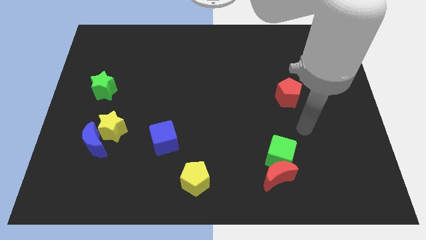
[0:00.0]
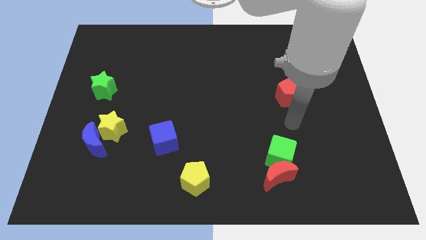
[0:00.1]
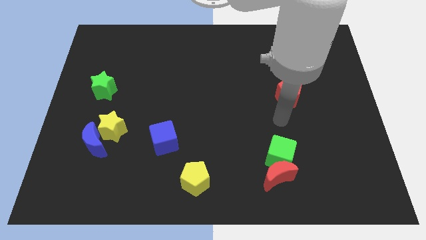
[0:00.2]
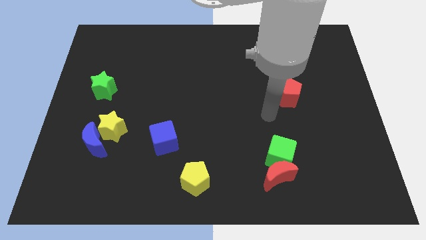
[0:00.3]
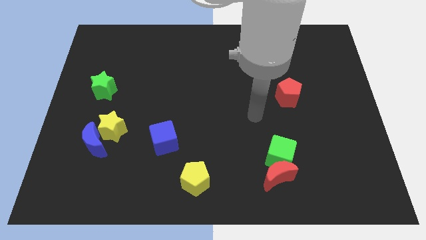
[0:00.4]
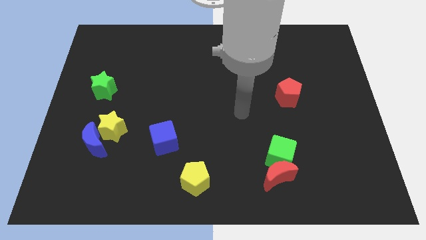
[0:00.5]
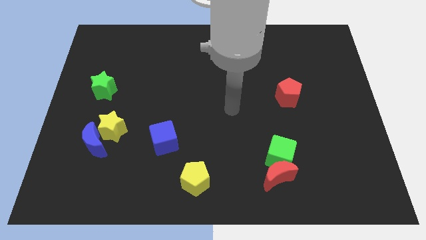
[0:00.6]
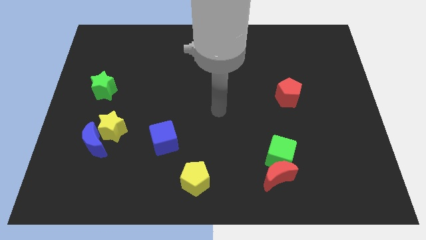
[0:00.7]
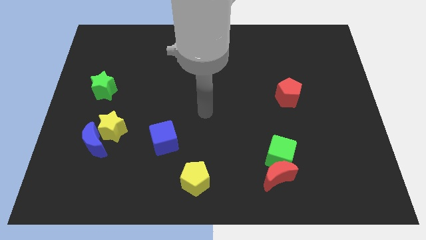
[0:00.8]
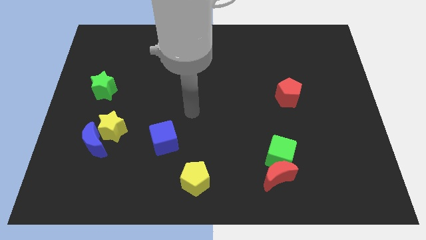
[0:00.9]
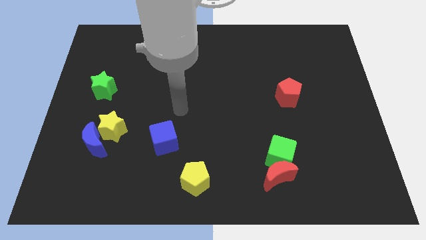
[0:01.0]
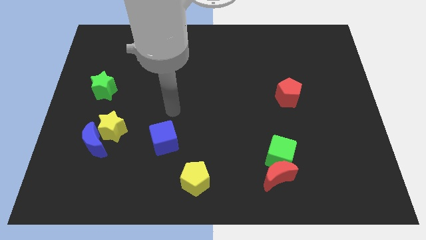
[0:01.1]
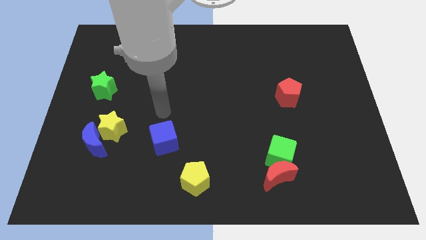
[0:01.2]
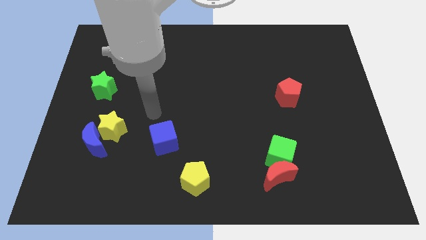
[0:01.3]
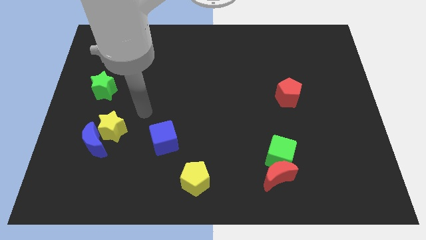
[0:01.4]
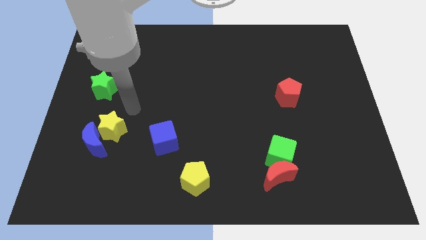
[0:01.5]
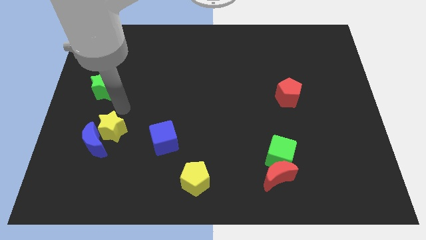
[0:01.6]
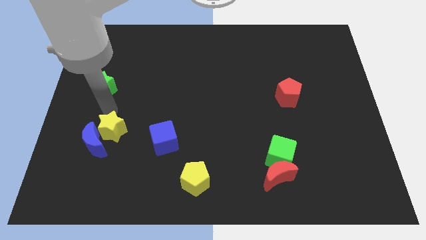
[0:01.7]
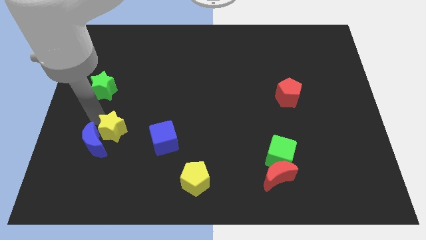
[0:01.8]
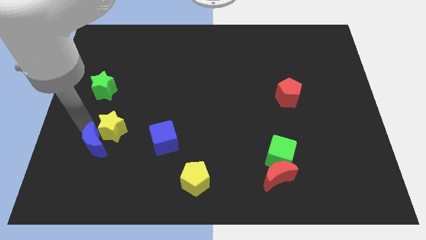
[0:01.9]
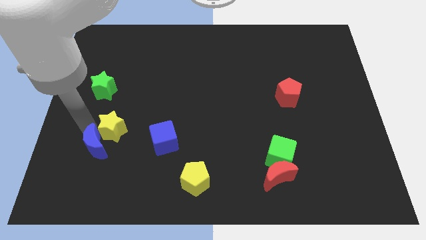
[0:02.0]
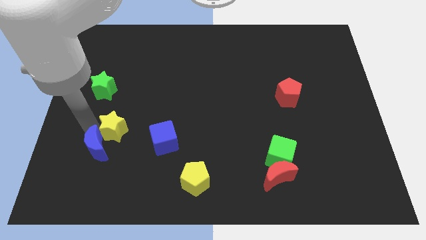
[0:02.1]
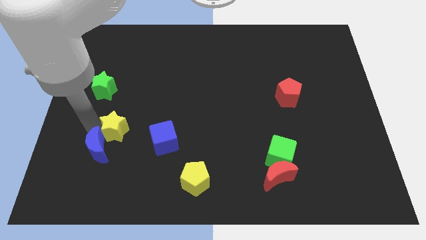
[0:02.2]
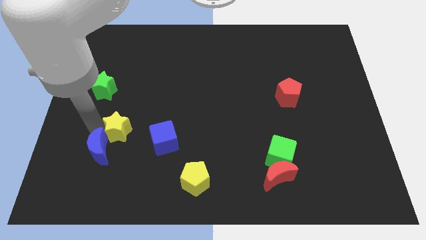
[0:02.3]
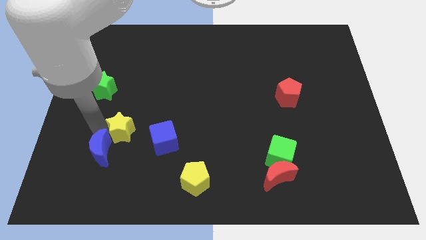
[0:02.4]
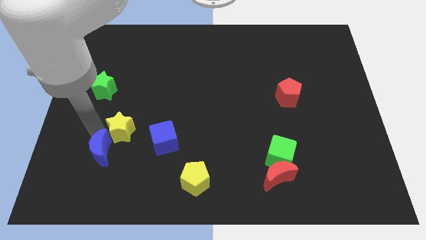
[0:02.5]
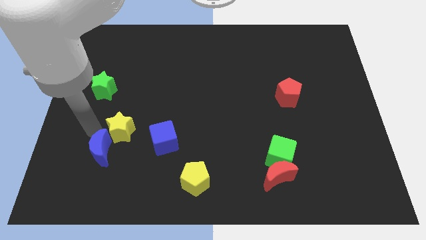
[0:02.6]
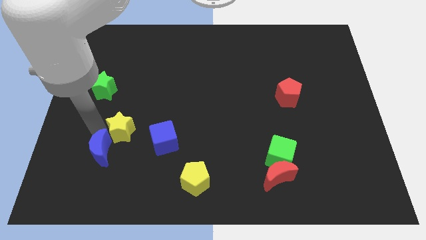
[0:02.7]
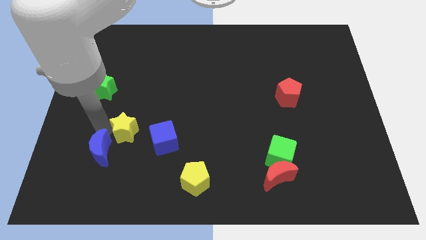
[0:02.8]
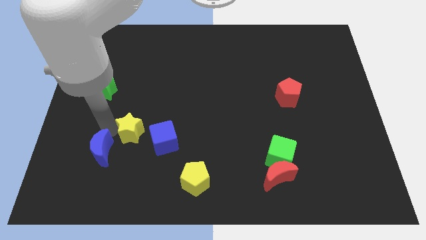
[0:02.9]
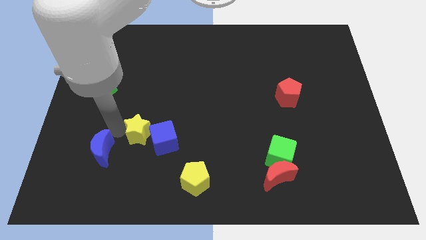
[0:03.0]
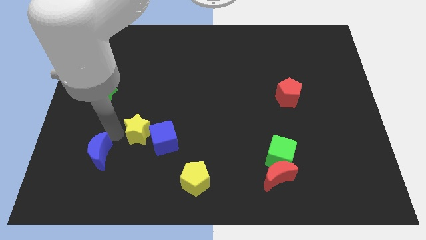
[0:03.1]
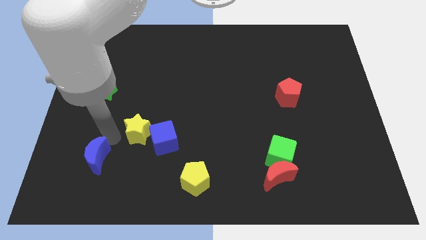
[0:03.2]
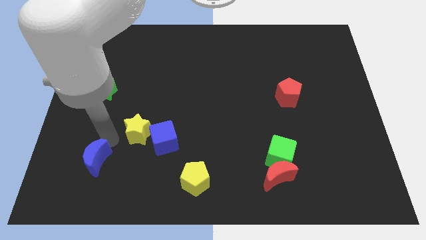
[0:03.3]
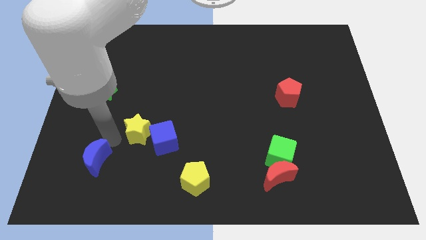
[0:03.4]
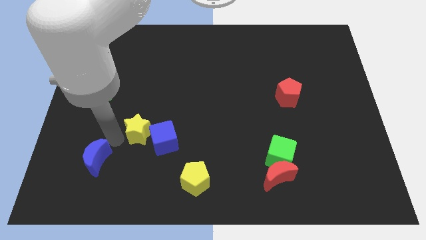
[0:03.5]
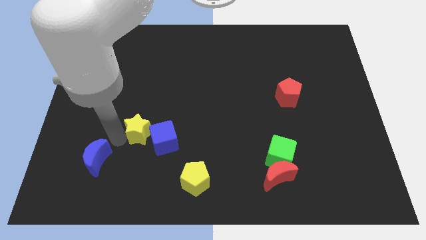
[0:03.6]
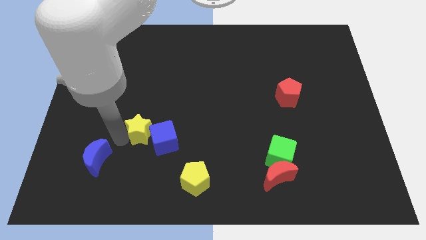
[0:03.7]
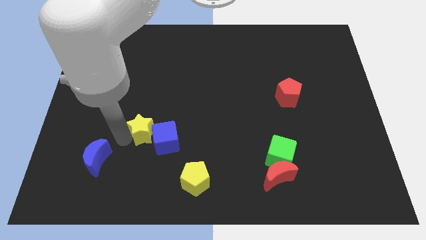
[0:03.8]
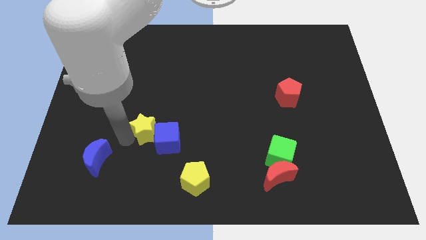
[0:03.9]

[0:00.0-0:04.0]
move the yellow star slightly to the right

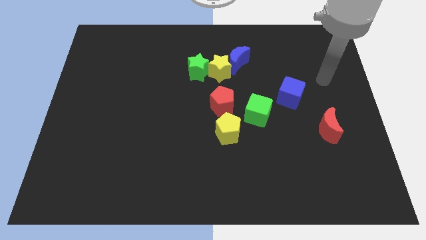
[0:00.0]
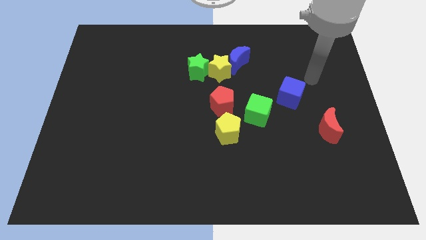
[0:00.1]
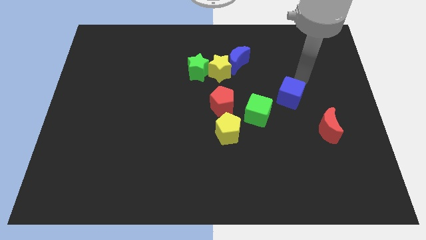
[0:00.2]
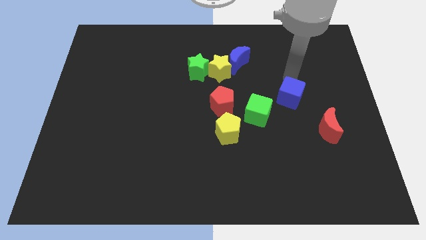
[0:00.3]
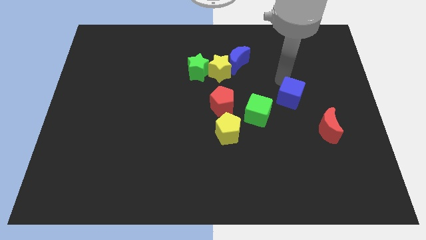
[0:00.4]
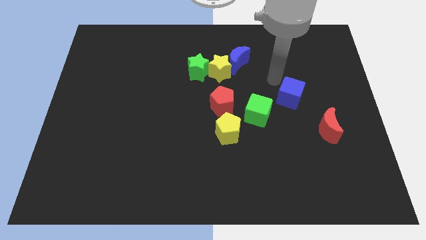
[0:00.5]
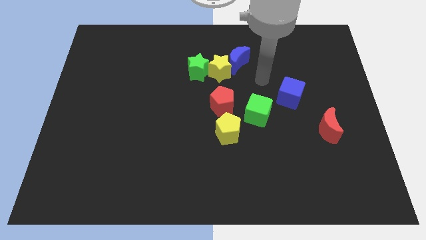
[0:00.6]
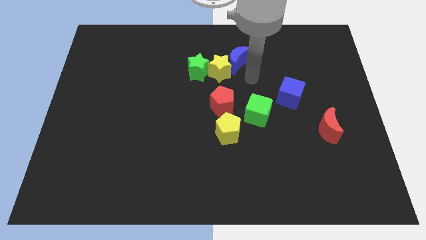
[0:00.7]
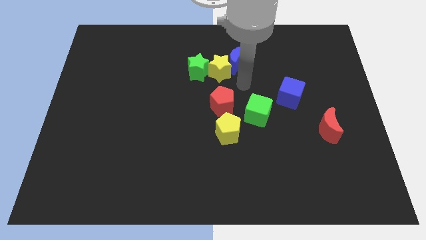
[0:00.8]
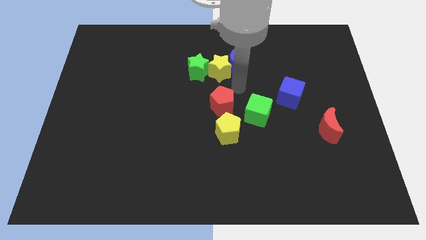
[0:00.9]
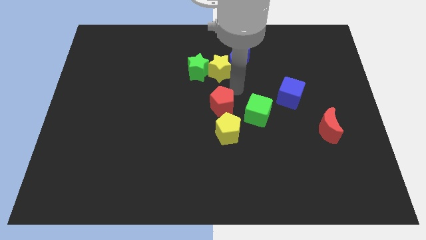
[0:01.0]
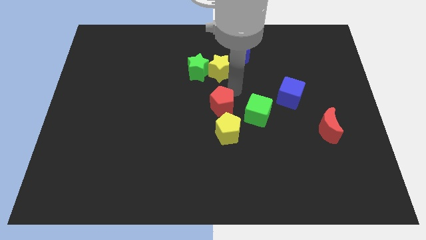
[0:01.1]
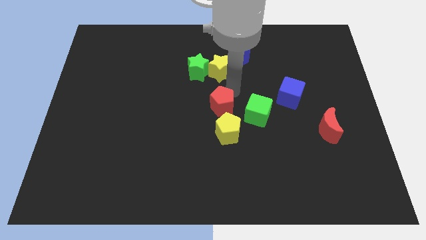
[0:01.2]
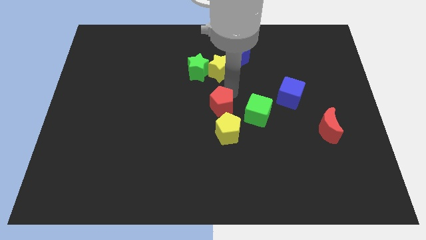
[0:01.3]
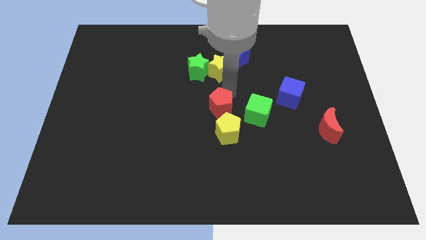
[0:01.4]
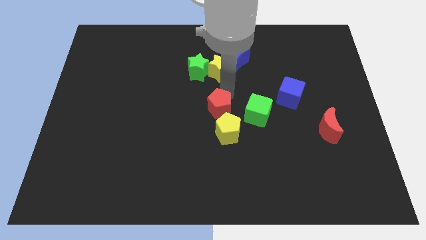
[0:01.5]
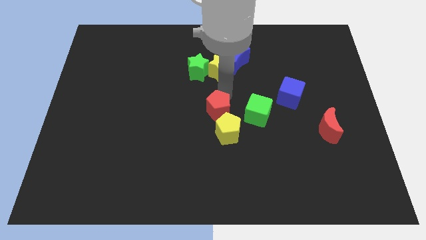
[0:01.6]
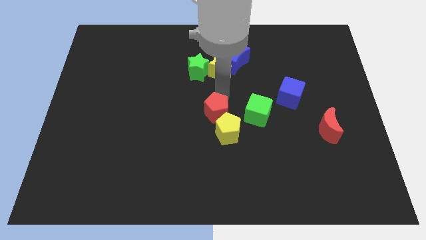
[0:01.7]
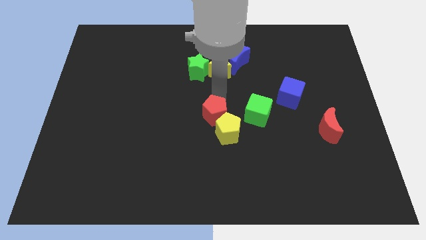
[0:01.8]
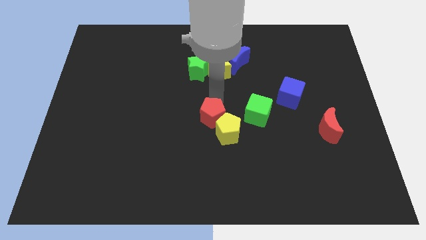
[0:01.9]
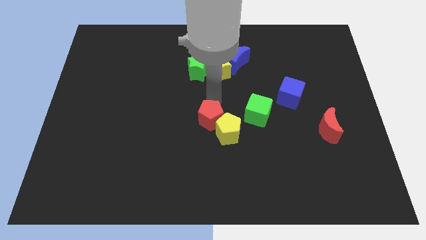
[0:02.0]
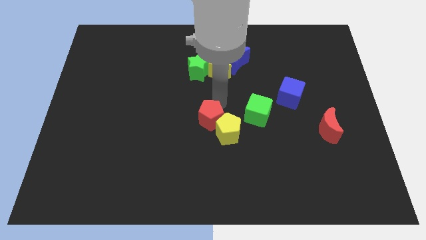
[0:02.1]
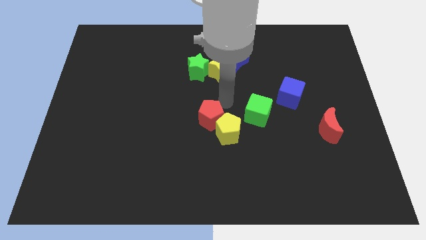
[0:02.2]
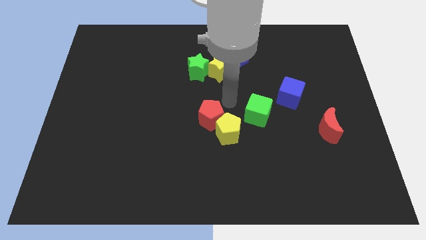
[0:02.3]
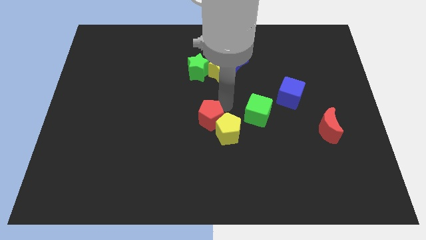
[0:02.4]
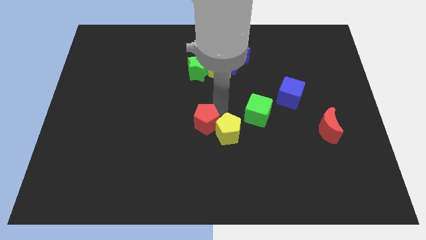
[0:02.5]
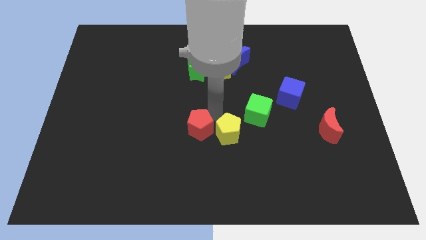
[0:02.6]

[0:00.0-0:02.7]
push the red pentagon somewhat down and then left

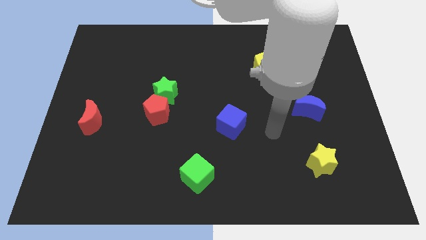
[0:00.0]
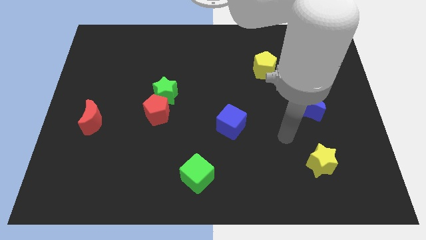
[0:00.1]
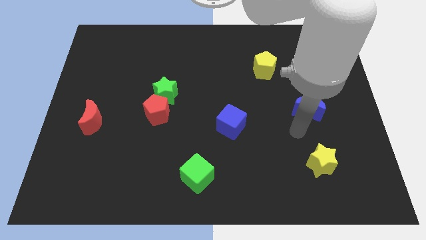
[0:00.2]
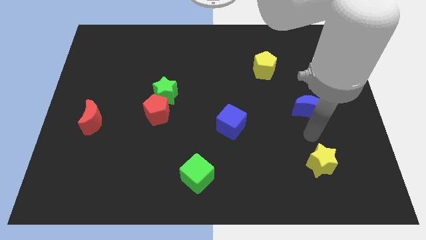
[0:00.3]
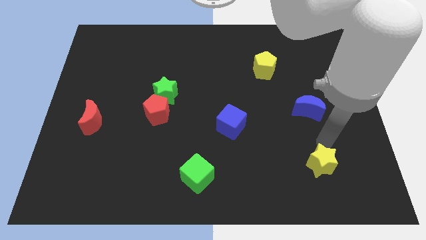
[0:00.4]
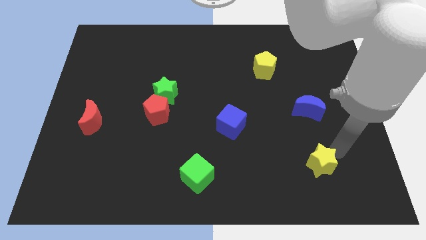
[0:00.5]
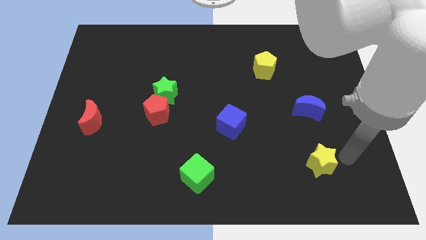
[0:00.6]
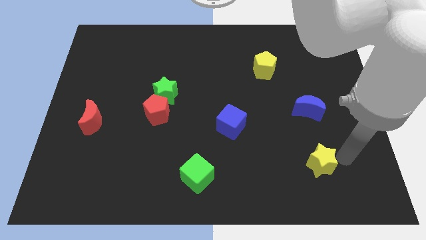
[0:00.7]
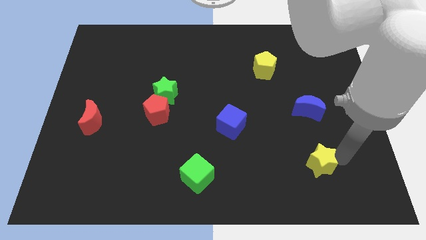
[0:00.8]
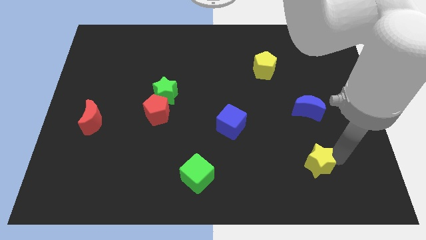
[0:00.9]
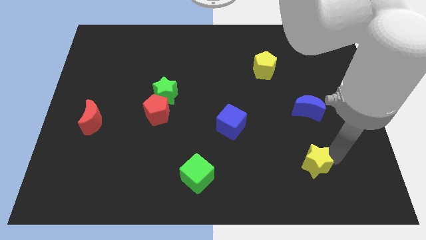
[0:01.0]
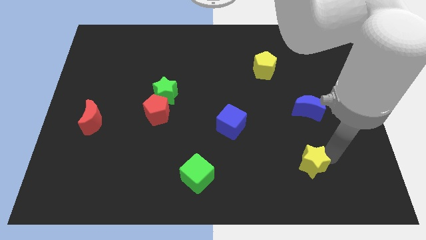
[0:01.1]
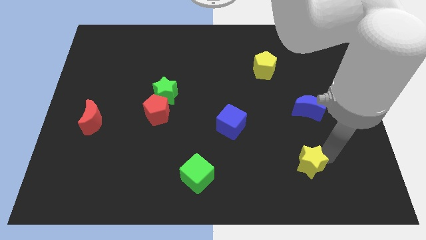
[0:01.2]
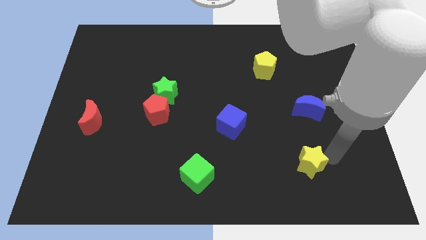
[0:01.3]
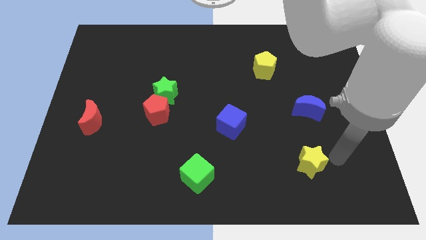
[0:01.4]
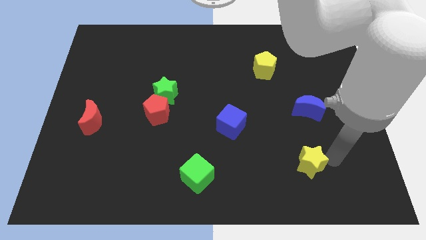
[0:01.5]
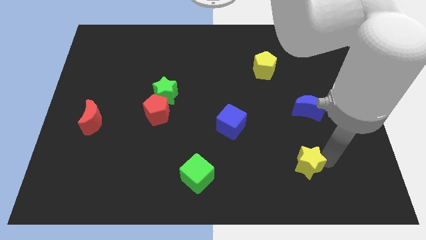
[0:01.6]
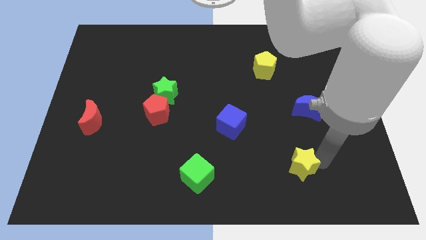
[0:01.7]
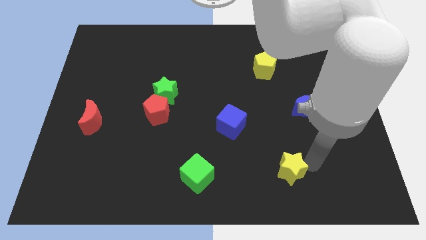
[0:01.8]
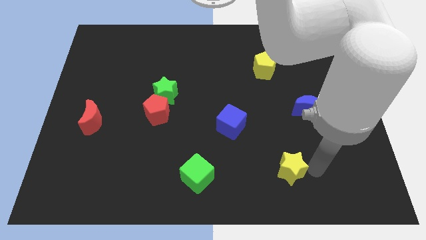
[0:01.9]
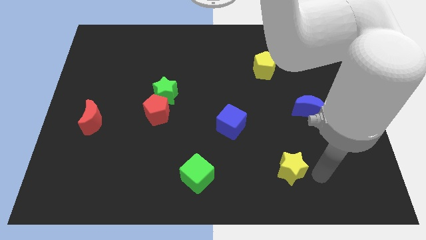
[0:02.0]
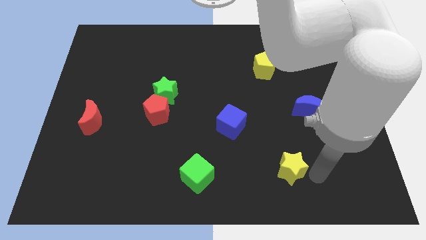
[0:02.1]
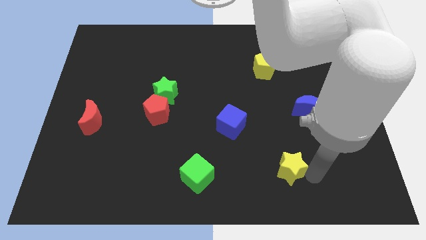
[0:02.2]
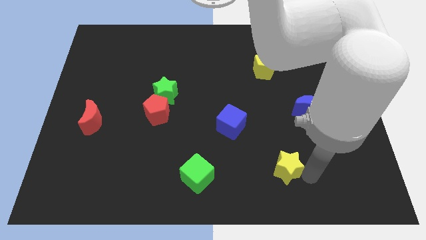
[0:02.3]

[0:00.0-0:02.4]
slightly push the yellow star to the left
